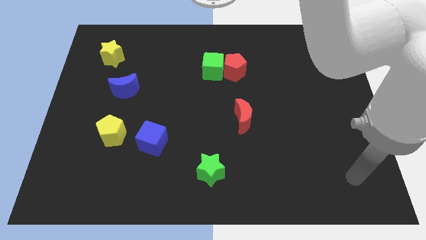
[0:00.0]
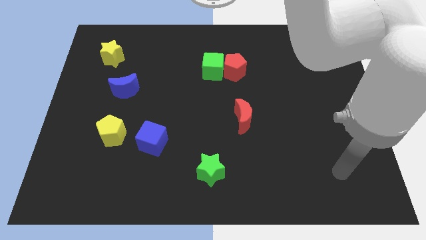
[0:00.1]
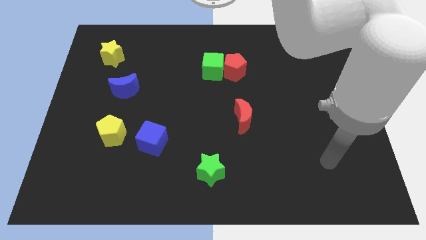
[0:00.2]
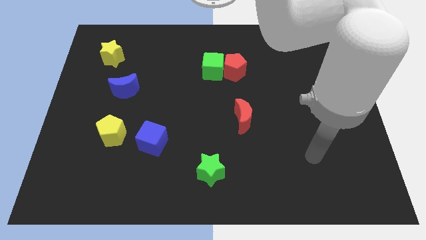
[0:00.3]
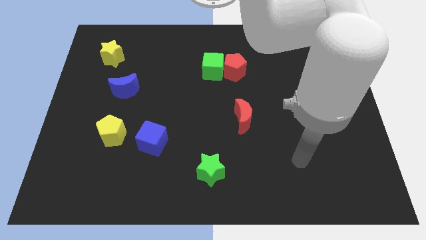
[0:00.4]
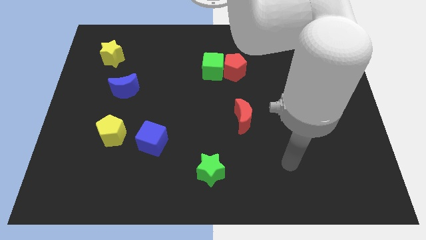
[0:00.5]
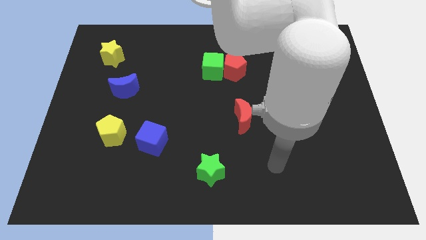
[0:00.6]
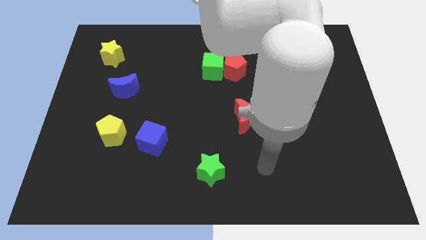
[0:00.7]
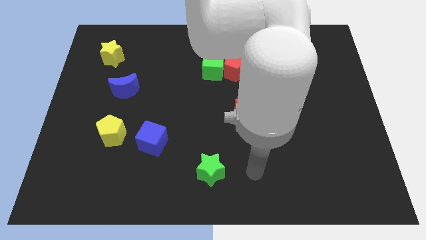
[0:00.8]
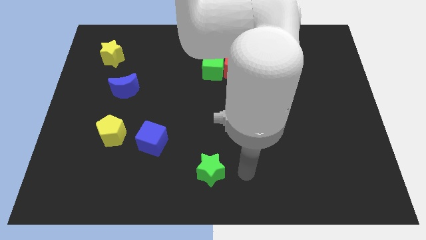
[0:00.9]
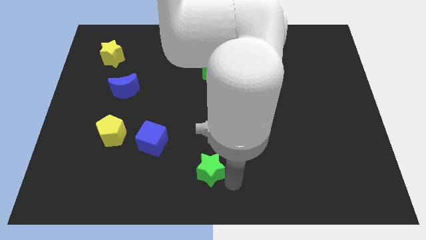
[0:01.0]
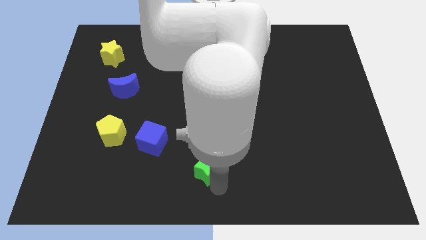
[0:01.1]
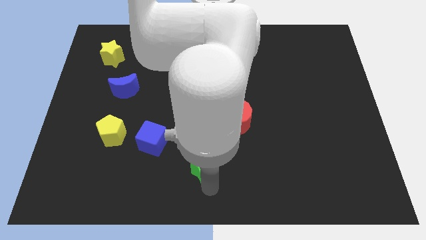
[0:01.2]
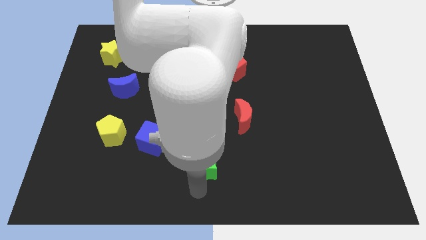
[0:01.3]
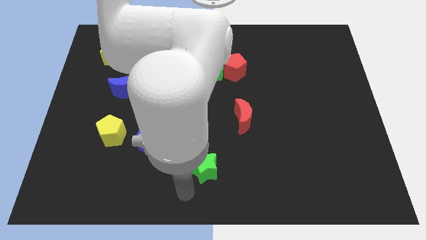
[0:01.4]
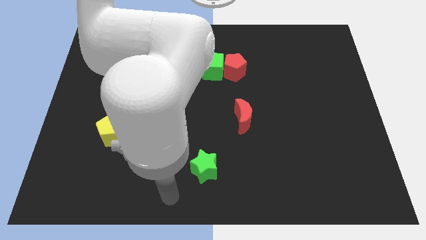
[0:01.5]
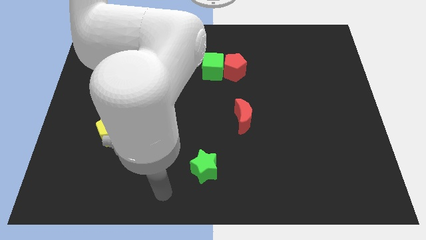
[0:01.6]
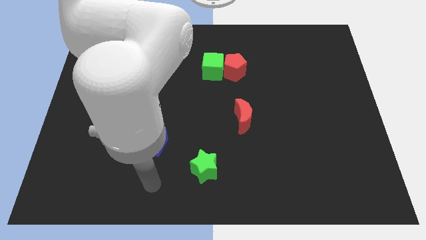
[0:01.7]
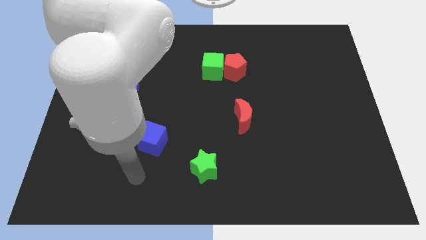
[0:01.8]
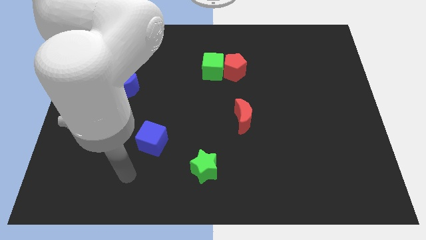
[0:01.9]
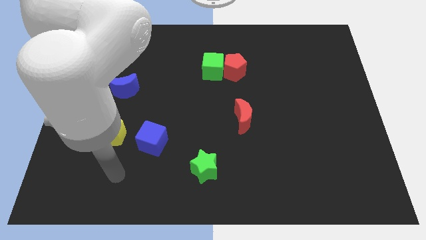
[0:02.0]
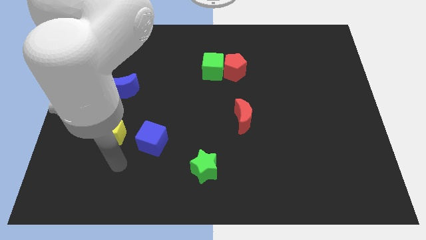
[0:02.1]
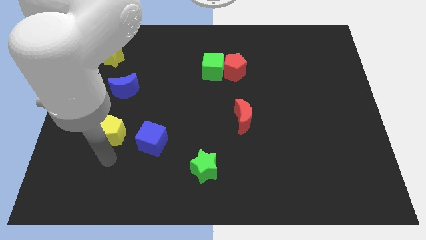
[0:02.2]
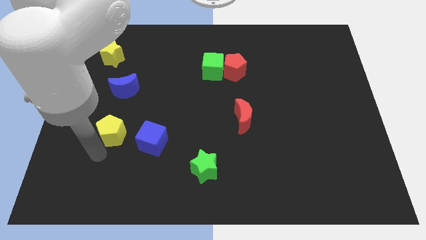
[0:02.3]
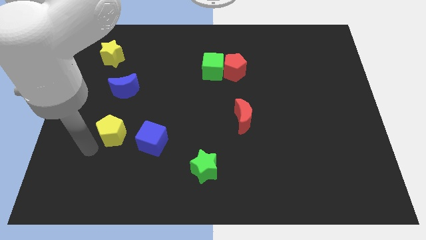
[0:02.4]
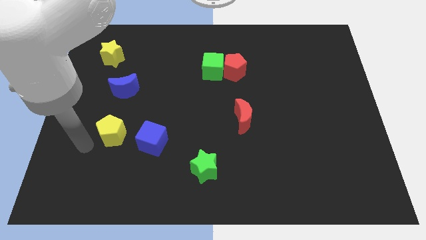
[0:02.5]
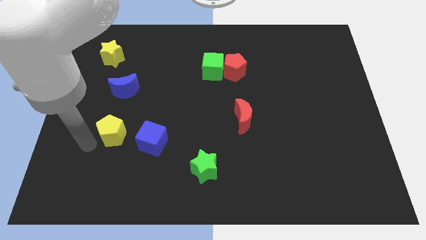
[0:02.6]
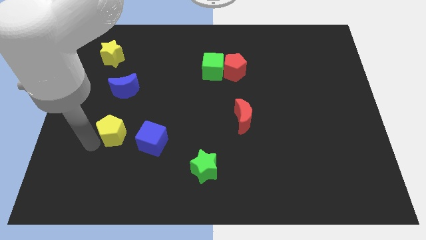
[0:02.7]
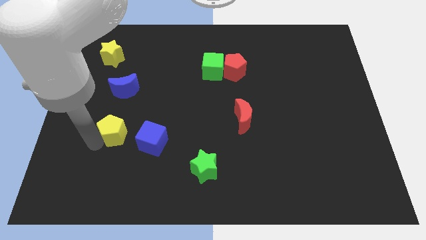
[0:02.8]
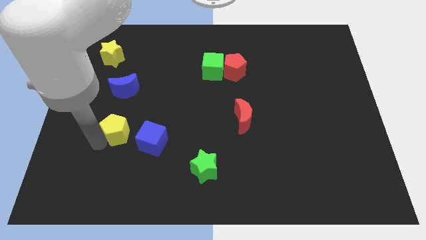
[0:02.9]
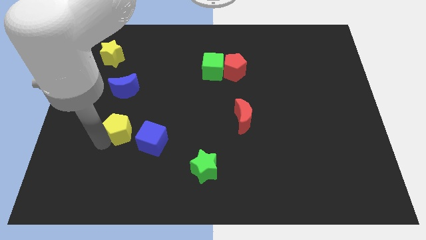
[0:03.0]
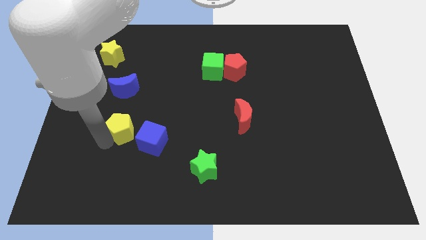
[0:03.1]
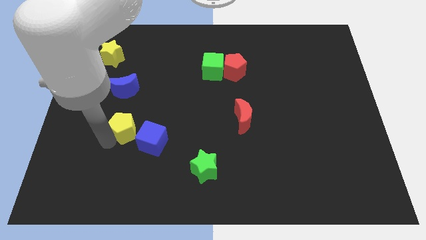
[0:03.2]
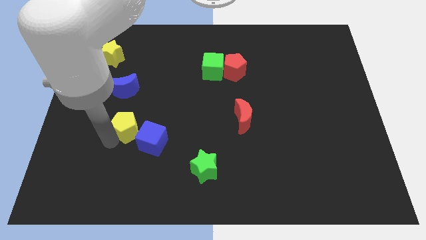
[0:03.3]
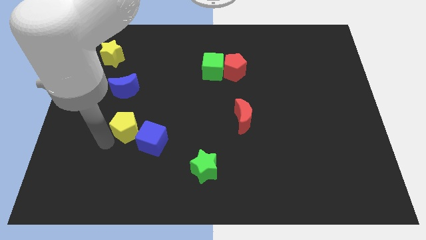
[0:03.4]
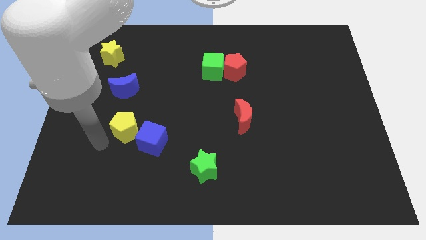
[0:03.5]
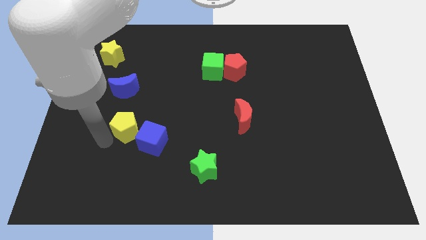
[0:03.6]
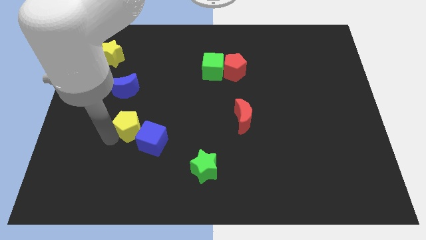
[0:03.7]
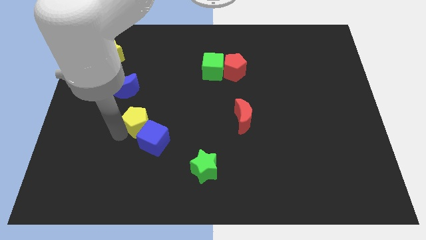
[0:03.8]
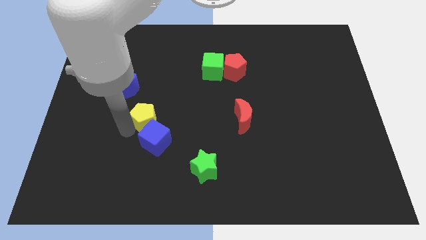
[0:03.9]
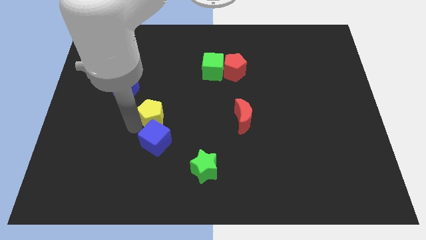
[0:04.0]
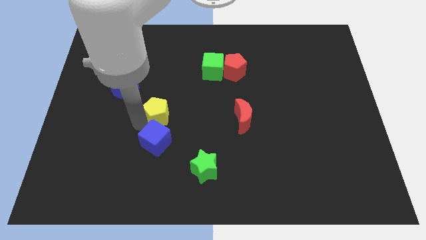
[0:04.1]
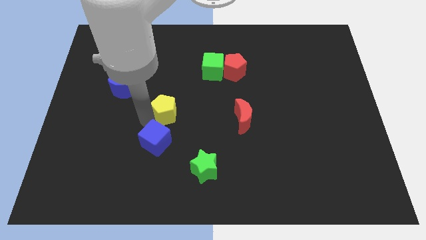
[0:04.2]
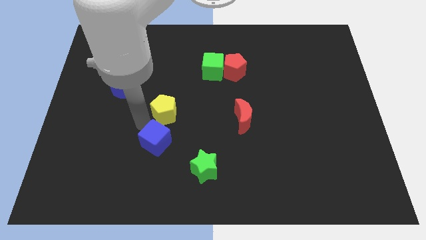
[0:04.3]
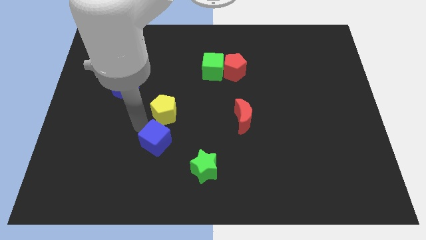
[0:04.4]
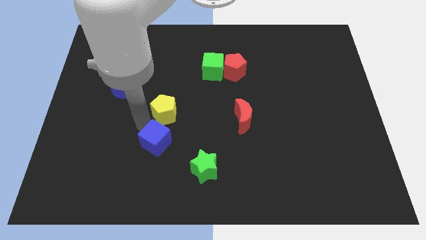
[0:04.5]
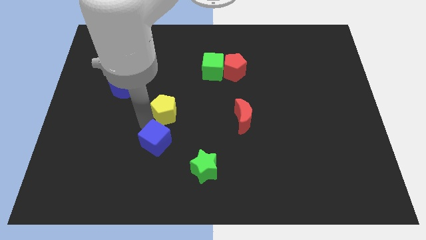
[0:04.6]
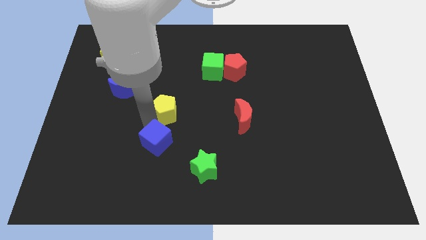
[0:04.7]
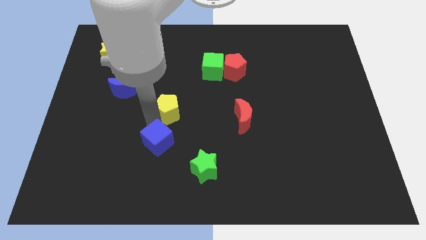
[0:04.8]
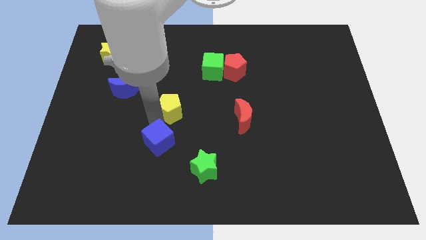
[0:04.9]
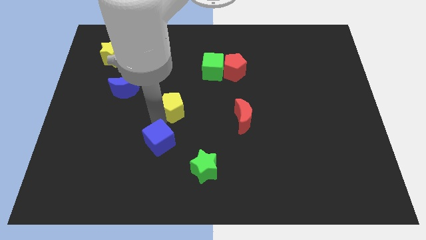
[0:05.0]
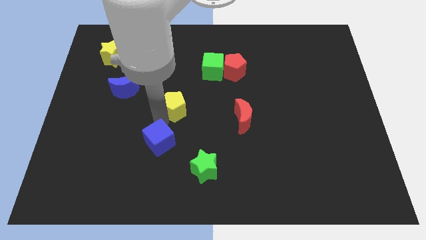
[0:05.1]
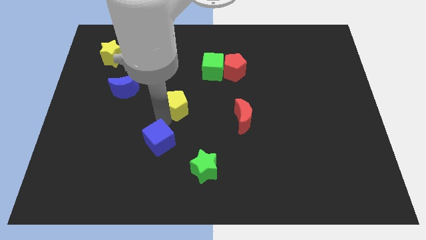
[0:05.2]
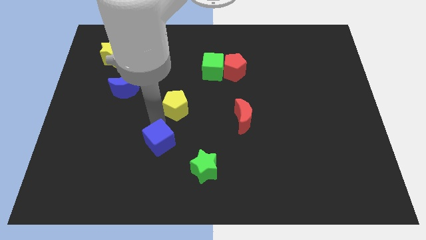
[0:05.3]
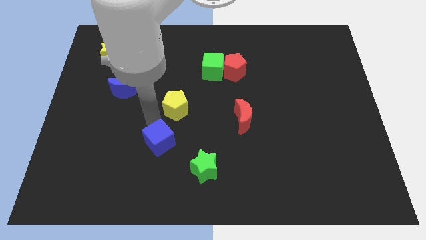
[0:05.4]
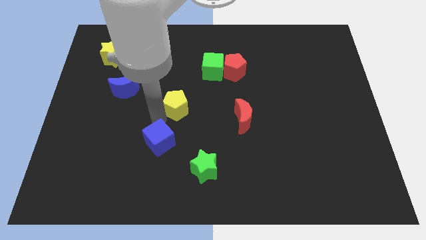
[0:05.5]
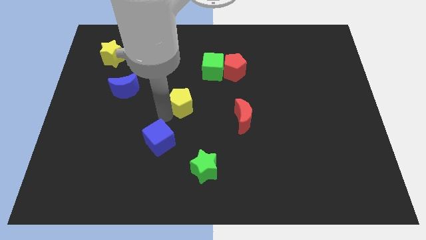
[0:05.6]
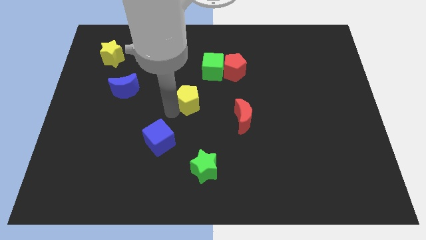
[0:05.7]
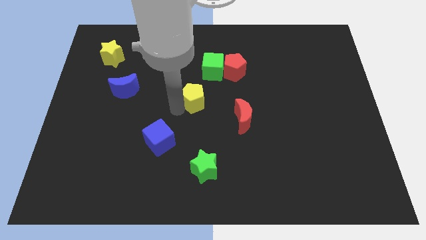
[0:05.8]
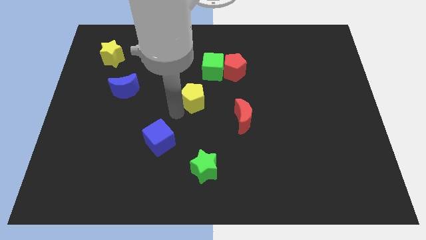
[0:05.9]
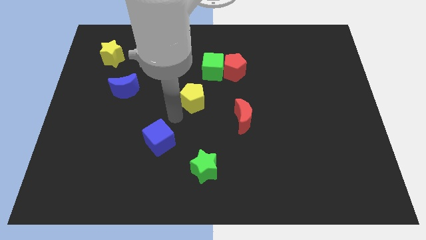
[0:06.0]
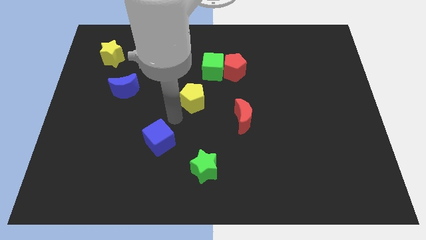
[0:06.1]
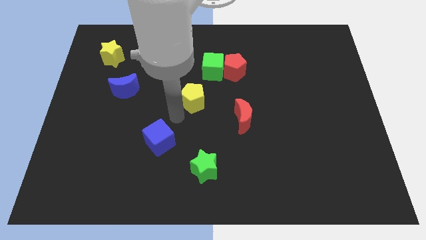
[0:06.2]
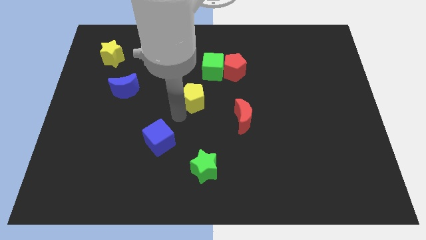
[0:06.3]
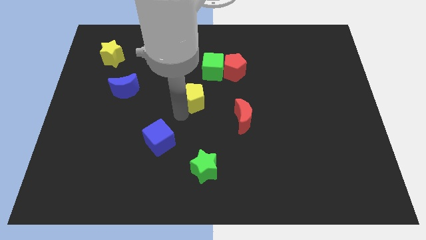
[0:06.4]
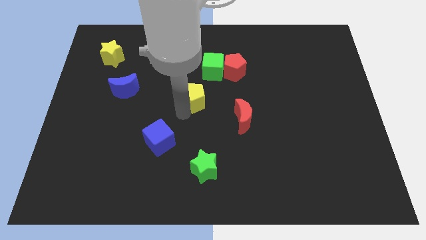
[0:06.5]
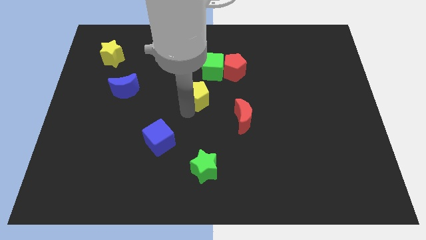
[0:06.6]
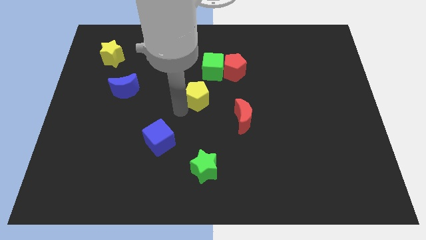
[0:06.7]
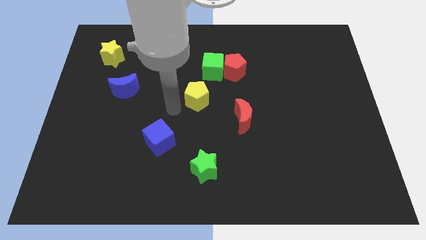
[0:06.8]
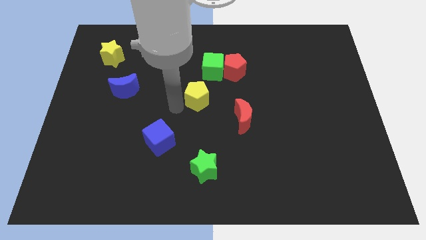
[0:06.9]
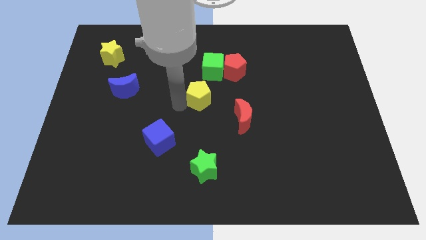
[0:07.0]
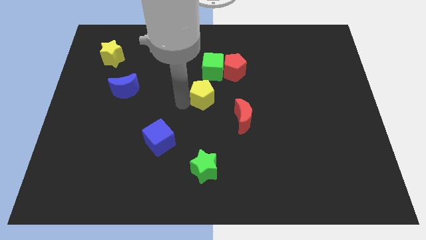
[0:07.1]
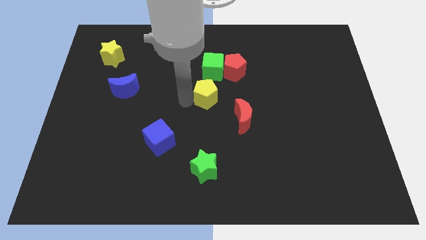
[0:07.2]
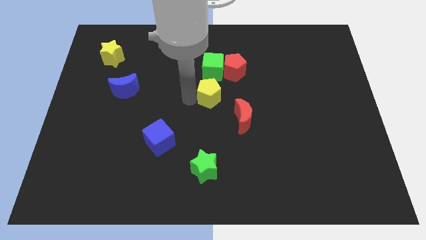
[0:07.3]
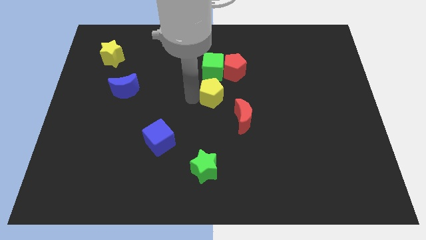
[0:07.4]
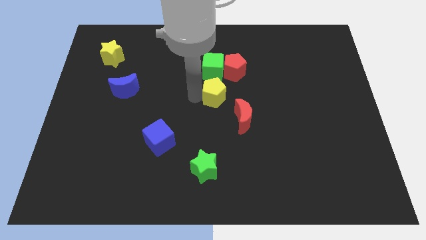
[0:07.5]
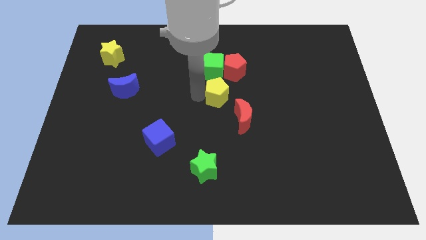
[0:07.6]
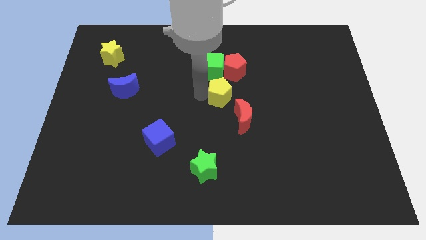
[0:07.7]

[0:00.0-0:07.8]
slide the yellow pentagon diagonally down and to the right of the green cube
